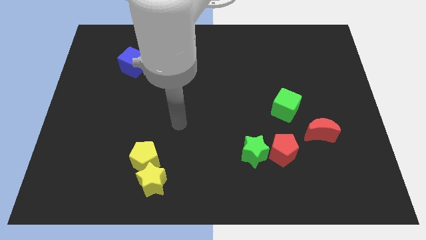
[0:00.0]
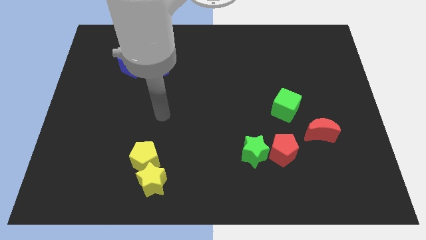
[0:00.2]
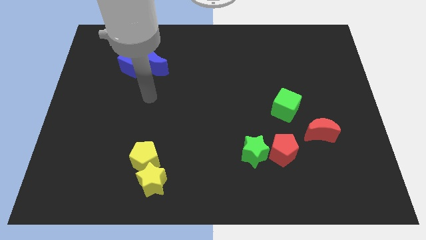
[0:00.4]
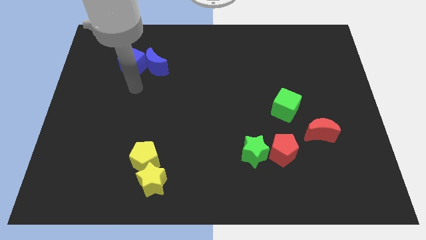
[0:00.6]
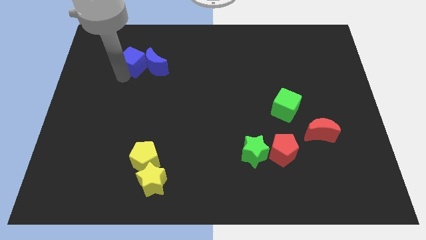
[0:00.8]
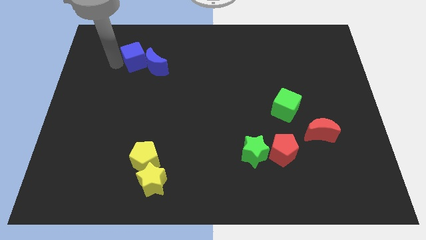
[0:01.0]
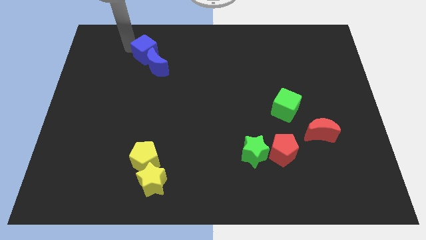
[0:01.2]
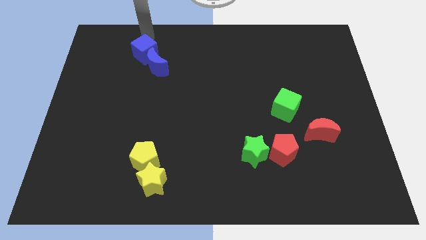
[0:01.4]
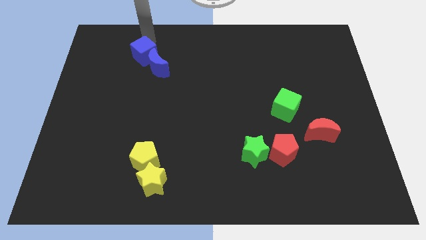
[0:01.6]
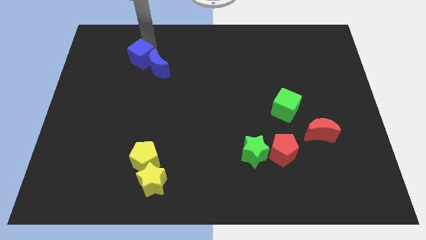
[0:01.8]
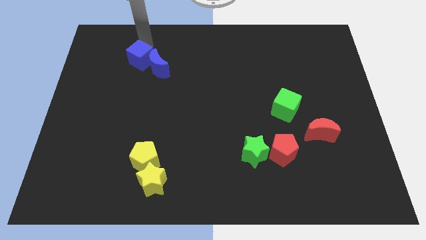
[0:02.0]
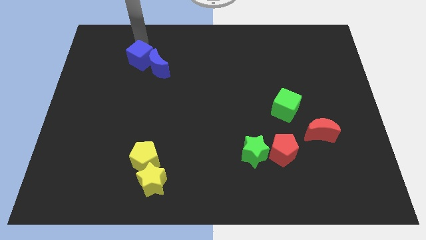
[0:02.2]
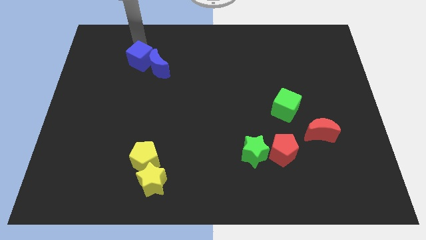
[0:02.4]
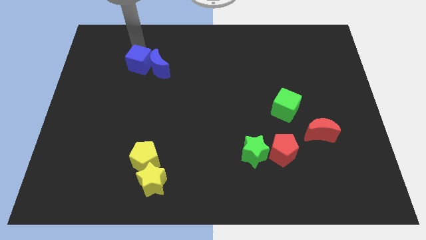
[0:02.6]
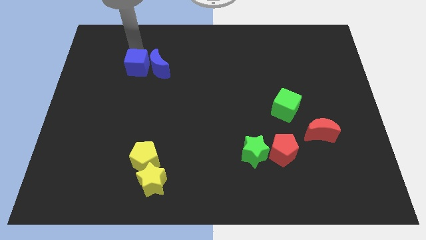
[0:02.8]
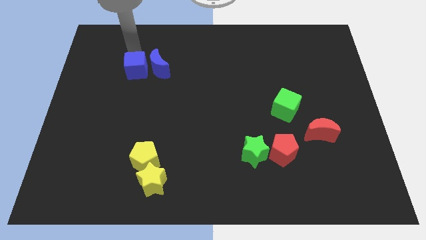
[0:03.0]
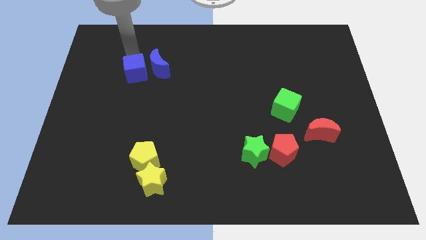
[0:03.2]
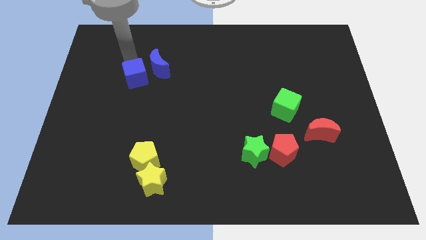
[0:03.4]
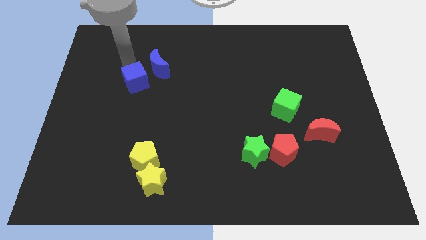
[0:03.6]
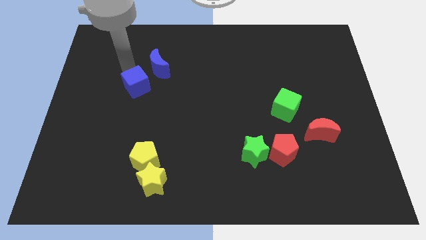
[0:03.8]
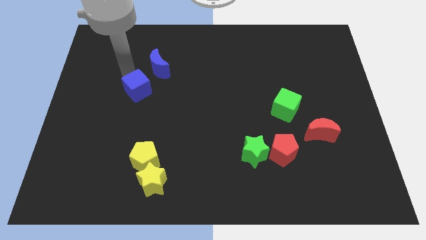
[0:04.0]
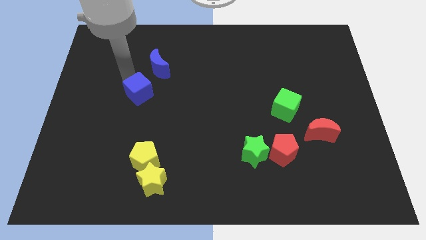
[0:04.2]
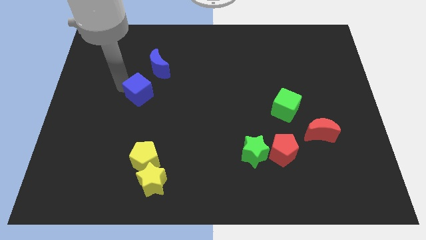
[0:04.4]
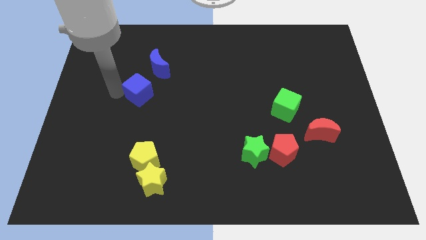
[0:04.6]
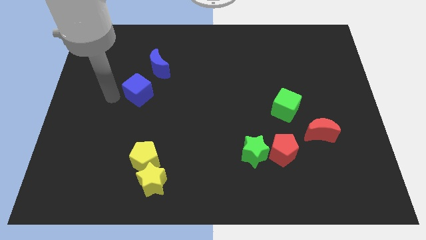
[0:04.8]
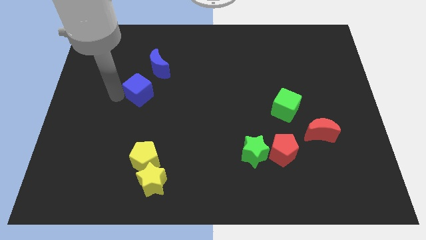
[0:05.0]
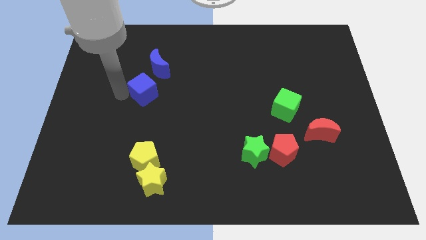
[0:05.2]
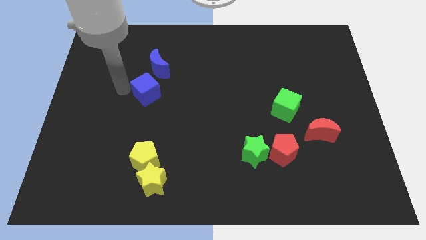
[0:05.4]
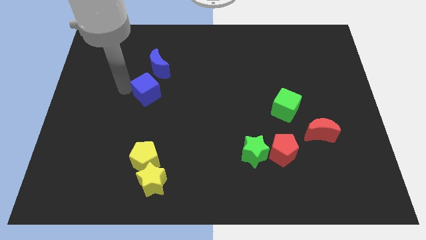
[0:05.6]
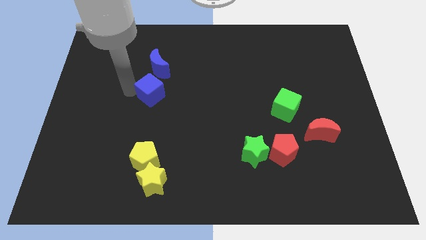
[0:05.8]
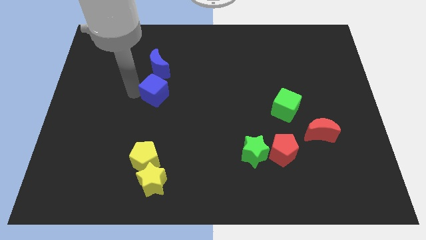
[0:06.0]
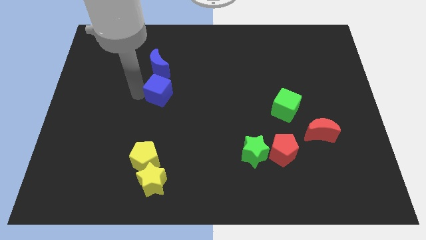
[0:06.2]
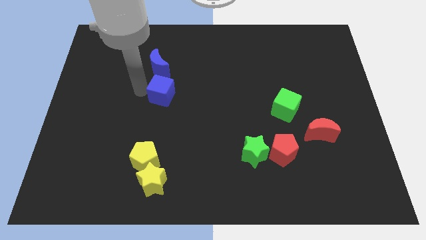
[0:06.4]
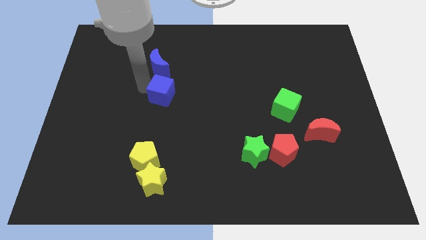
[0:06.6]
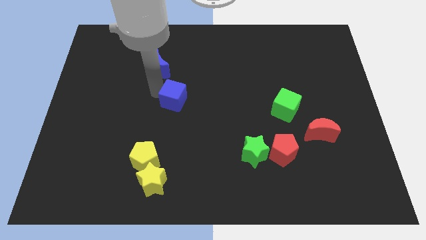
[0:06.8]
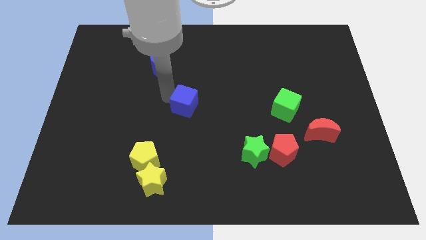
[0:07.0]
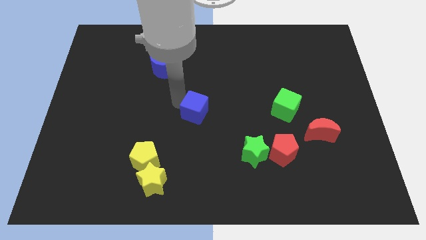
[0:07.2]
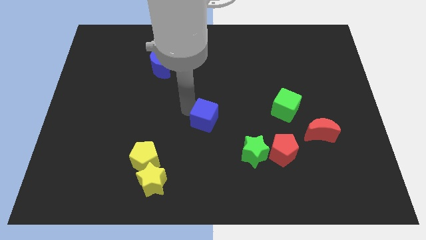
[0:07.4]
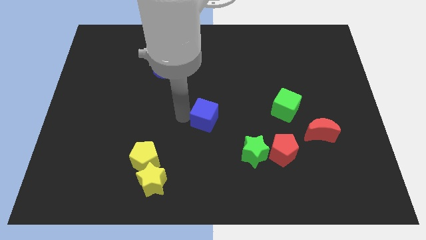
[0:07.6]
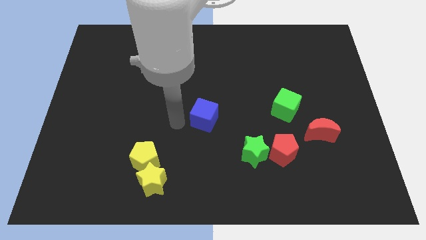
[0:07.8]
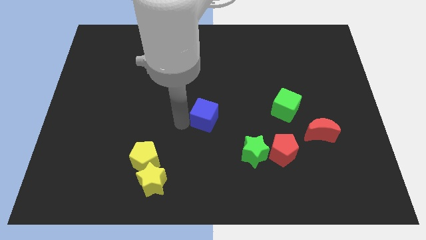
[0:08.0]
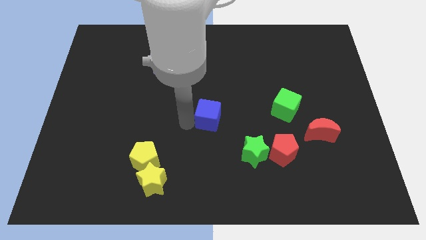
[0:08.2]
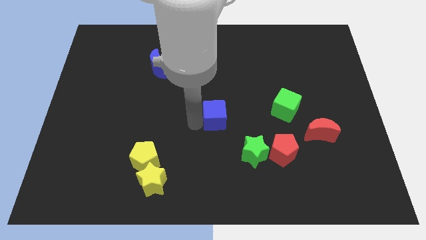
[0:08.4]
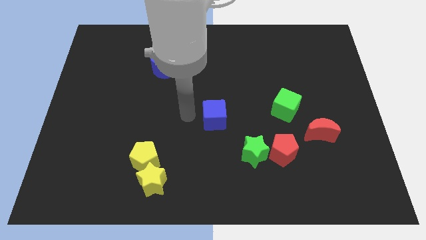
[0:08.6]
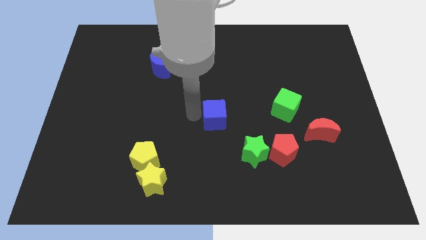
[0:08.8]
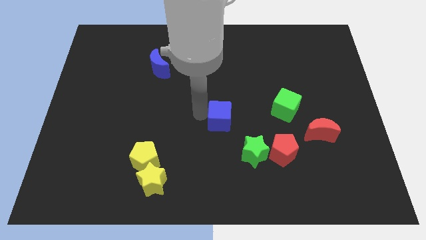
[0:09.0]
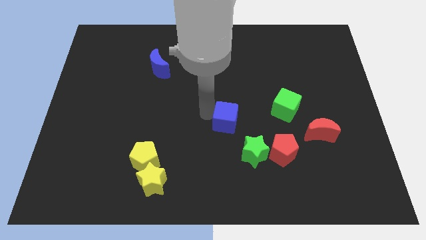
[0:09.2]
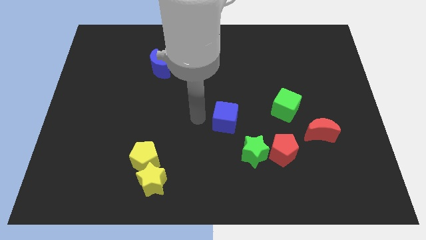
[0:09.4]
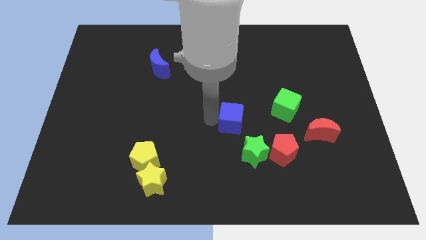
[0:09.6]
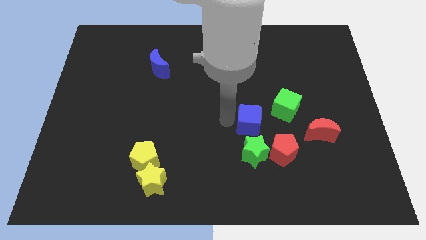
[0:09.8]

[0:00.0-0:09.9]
slide the blue cube left of the red moon

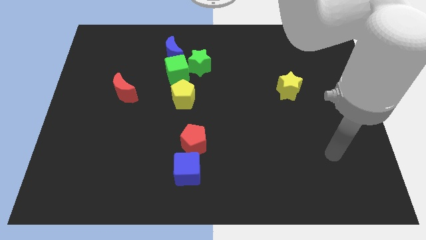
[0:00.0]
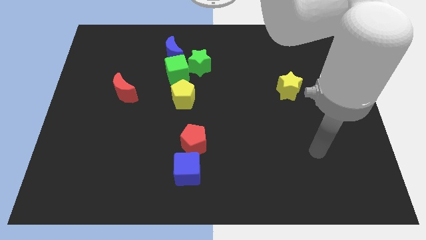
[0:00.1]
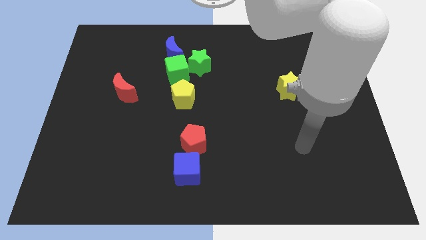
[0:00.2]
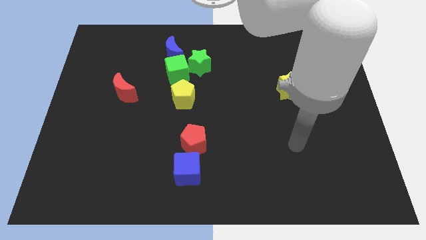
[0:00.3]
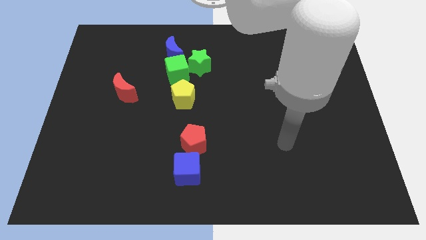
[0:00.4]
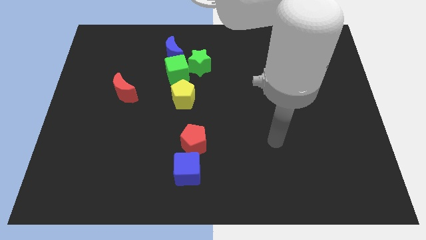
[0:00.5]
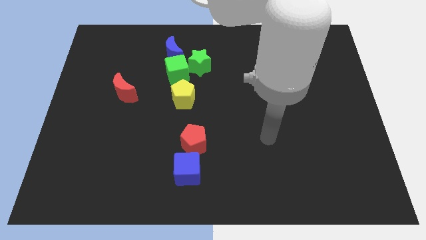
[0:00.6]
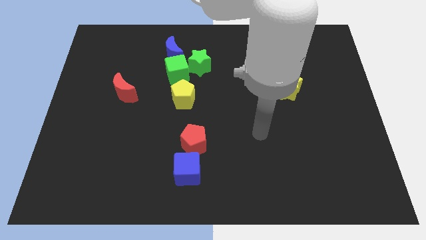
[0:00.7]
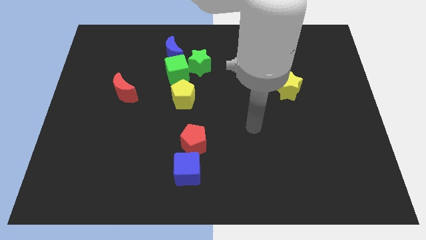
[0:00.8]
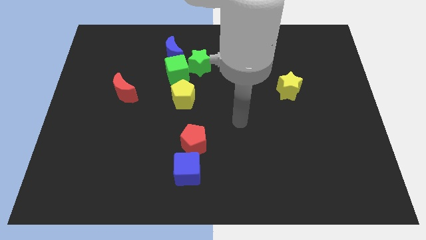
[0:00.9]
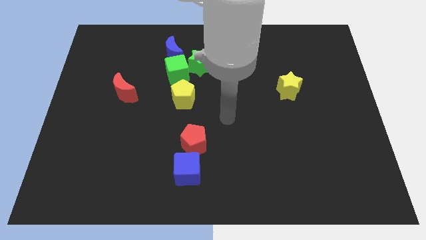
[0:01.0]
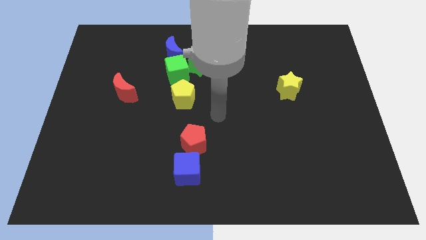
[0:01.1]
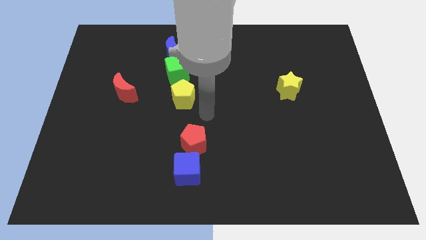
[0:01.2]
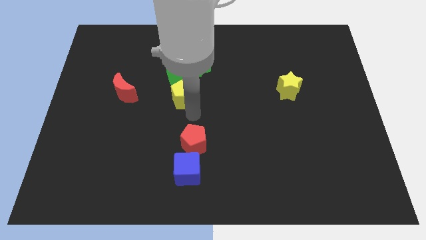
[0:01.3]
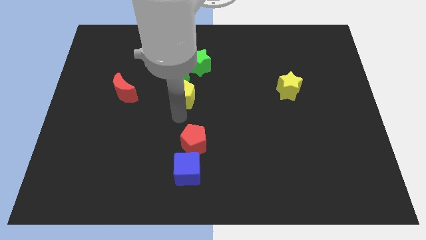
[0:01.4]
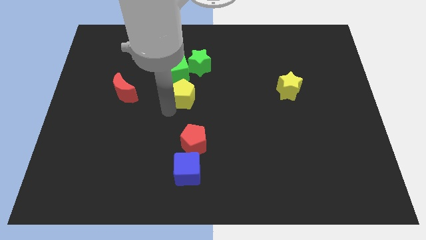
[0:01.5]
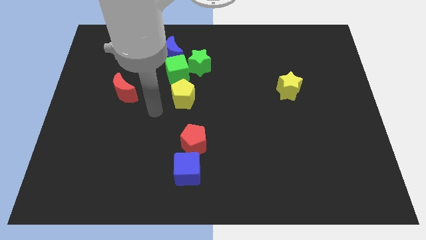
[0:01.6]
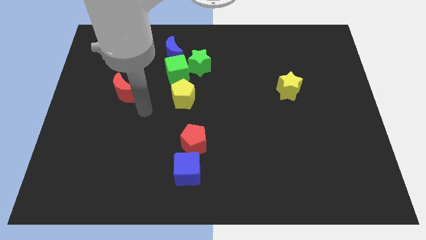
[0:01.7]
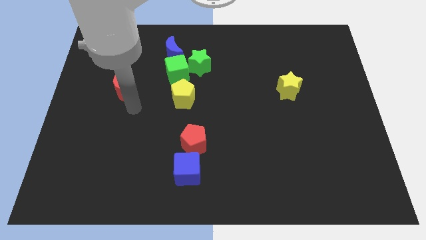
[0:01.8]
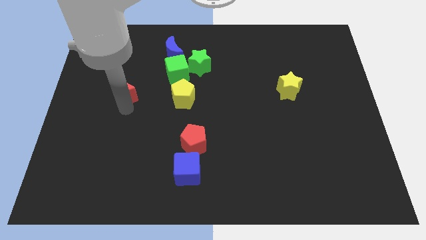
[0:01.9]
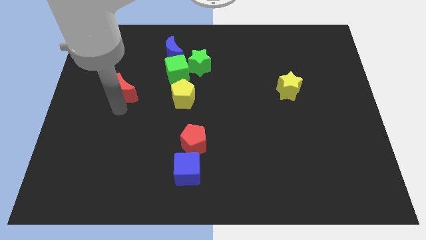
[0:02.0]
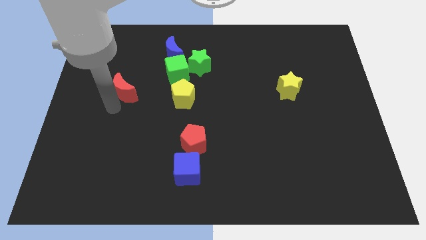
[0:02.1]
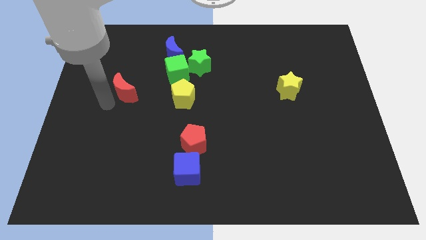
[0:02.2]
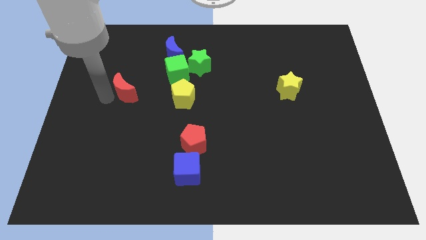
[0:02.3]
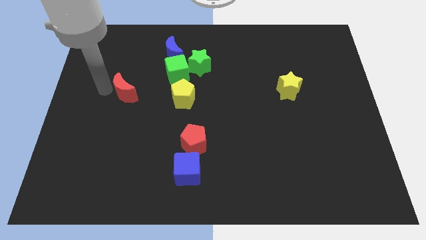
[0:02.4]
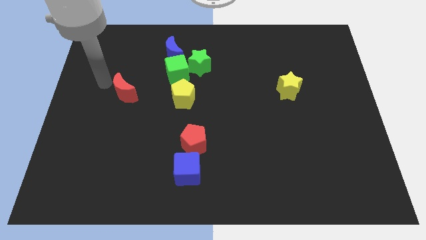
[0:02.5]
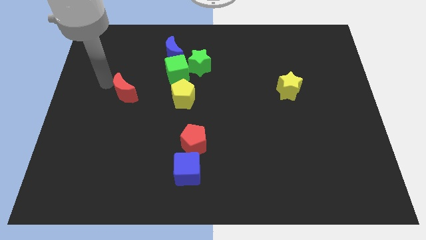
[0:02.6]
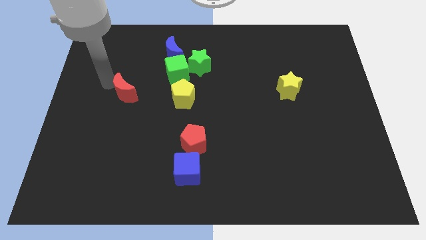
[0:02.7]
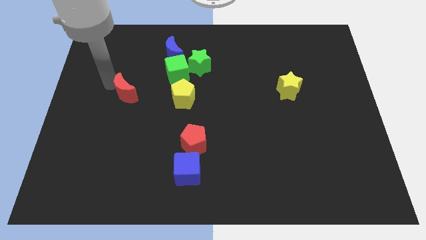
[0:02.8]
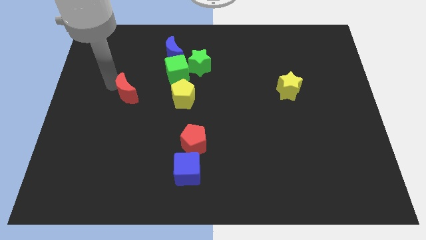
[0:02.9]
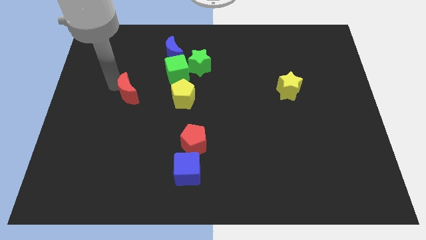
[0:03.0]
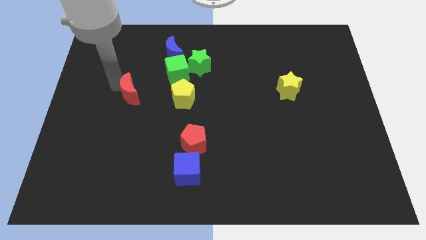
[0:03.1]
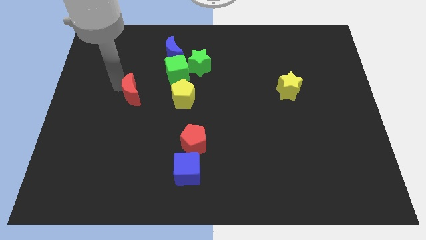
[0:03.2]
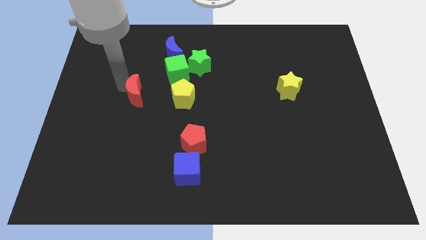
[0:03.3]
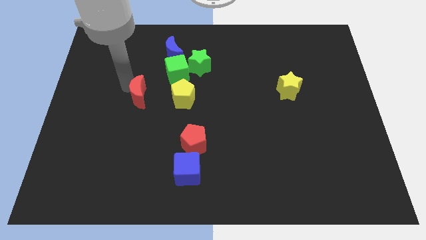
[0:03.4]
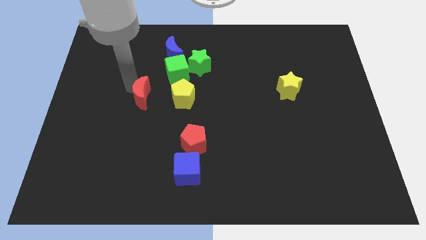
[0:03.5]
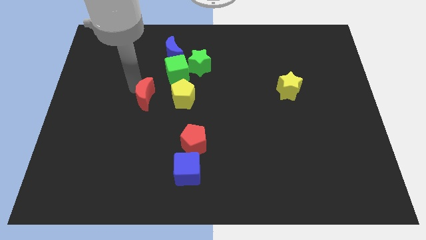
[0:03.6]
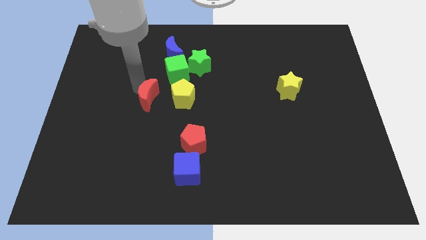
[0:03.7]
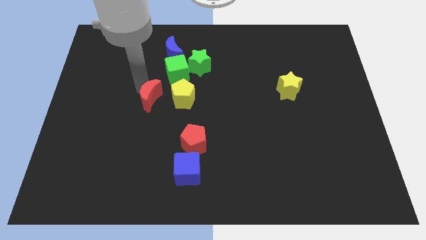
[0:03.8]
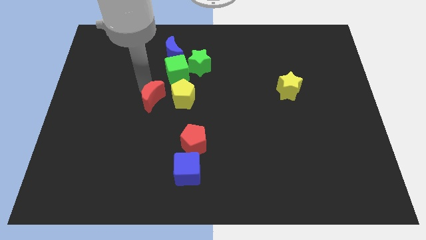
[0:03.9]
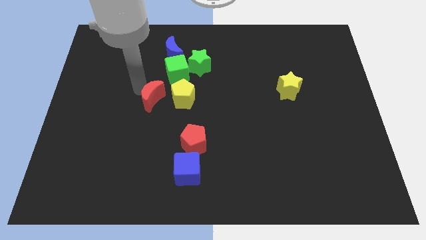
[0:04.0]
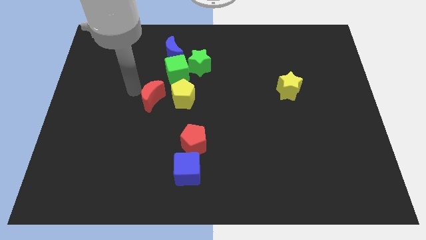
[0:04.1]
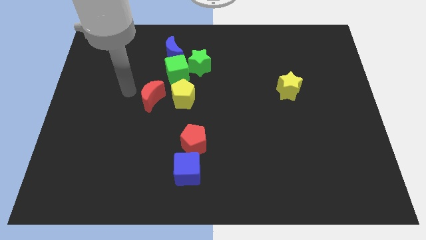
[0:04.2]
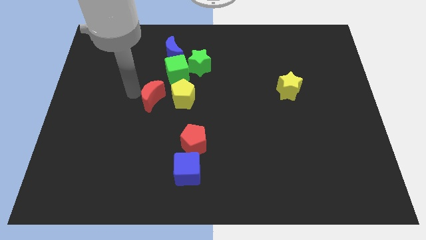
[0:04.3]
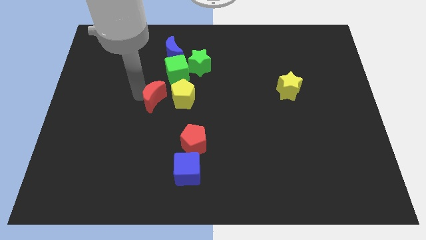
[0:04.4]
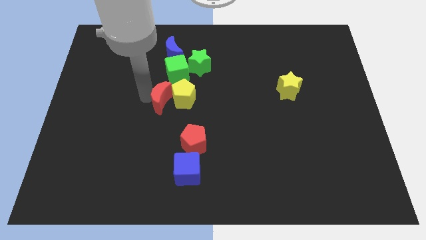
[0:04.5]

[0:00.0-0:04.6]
slide the red moon to the bottom side of the green cube
